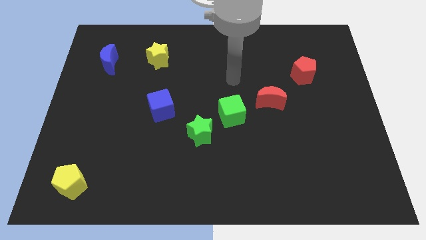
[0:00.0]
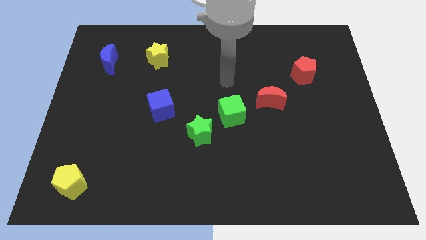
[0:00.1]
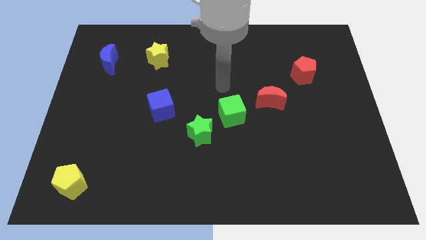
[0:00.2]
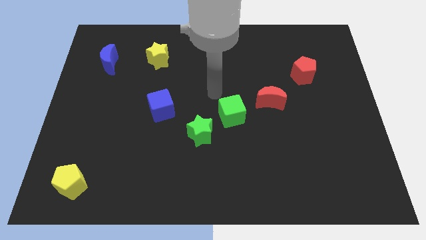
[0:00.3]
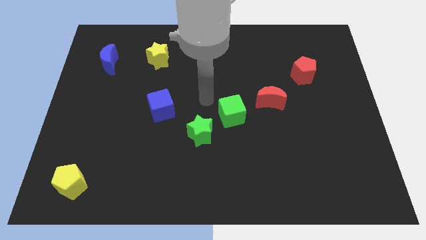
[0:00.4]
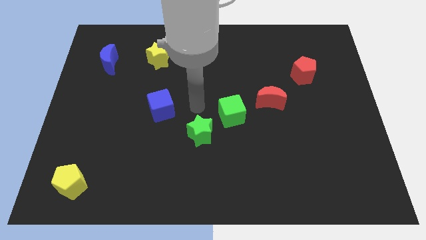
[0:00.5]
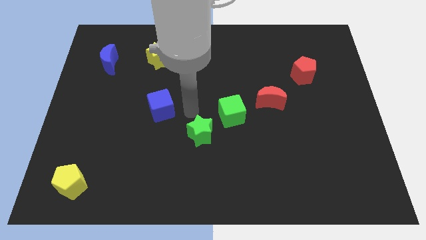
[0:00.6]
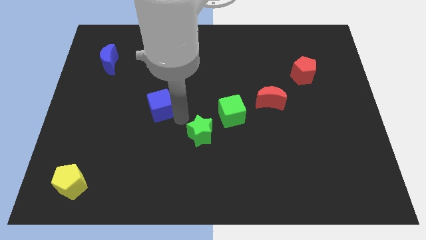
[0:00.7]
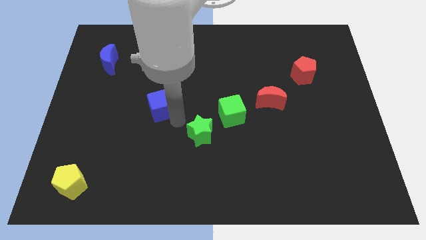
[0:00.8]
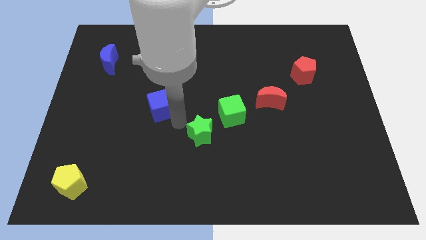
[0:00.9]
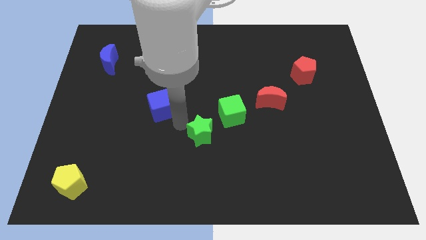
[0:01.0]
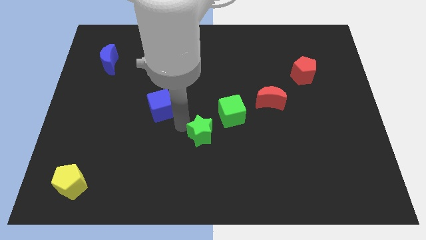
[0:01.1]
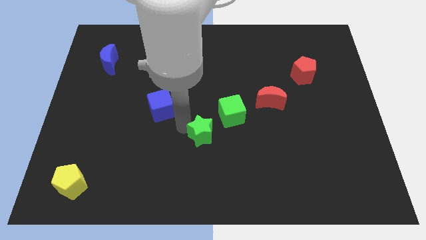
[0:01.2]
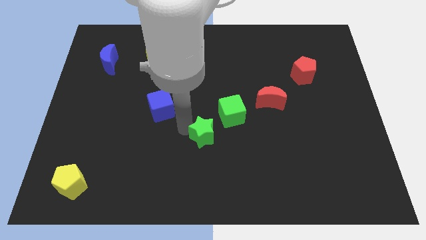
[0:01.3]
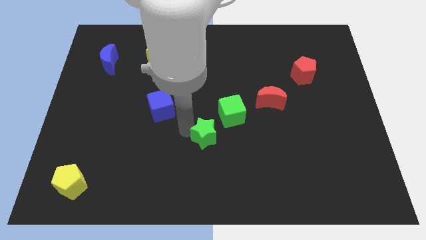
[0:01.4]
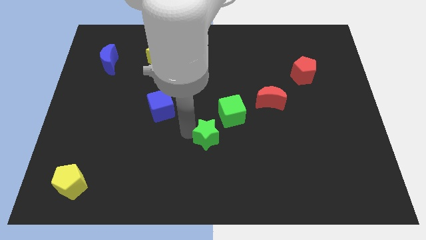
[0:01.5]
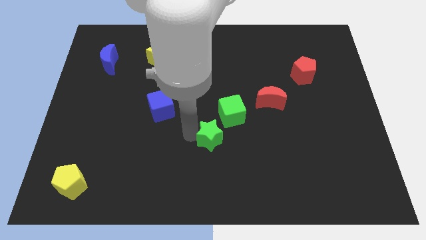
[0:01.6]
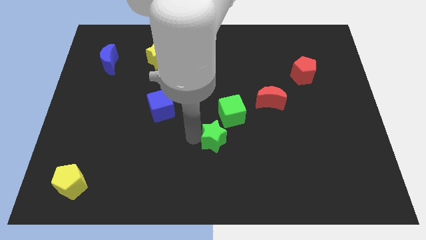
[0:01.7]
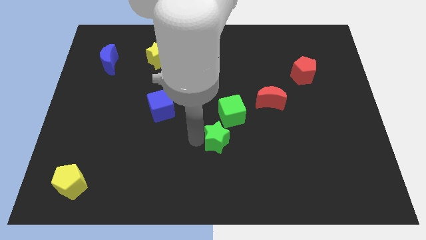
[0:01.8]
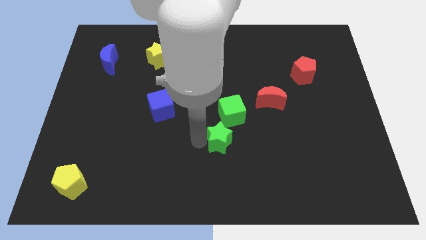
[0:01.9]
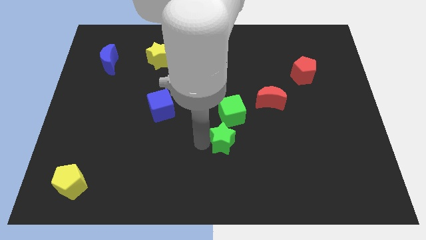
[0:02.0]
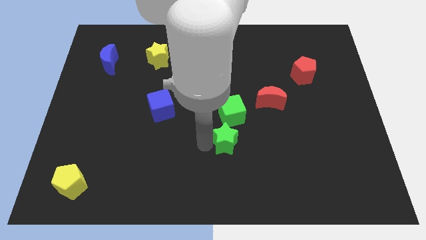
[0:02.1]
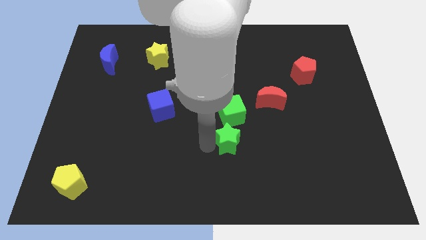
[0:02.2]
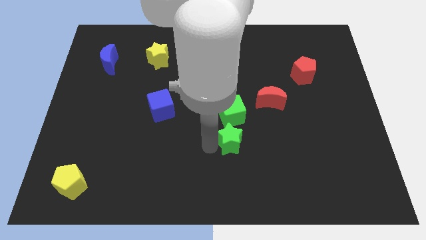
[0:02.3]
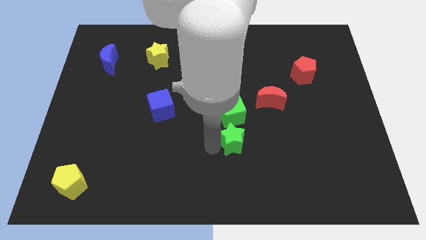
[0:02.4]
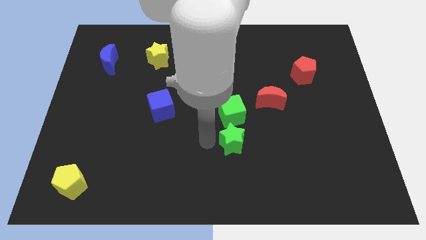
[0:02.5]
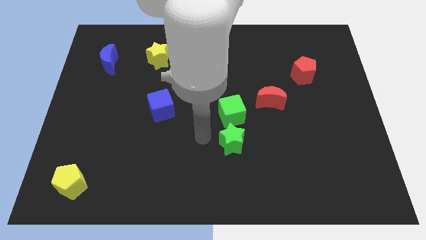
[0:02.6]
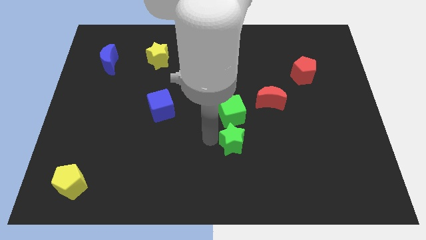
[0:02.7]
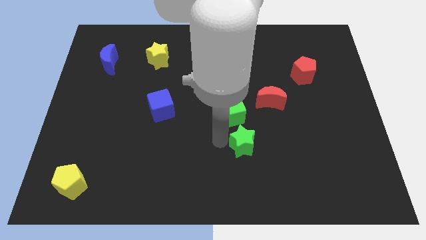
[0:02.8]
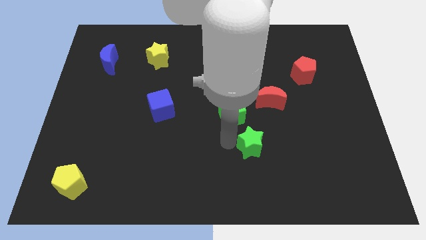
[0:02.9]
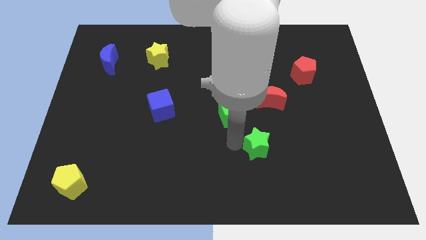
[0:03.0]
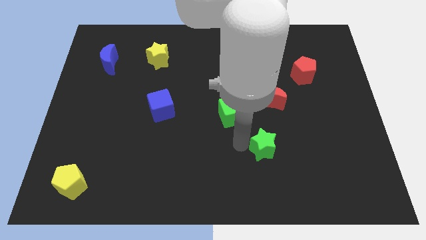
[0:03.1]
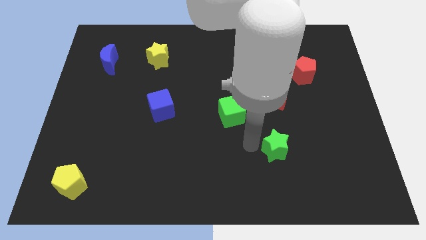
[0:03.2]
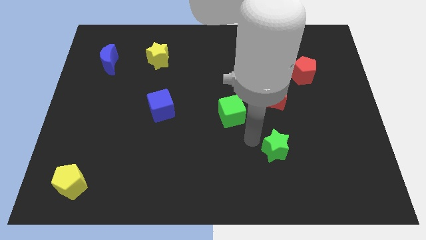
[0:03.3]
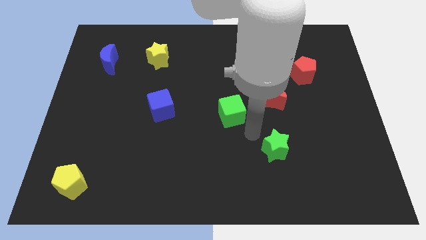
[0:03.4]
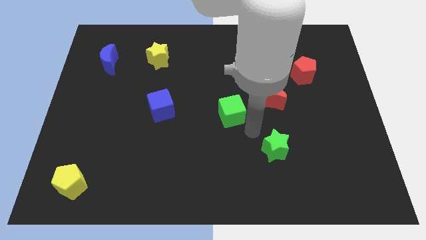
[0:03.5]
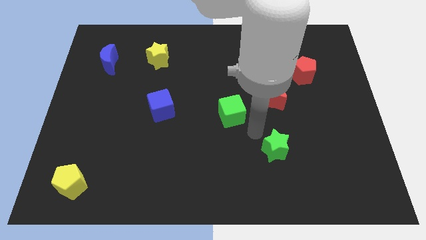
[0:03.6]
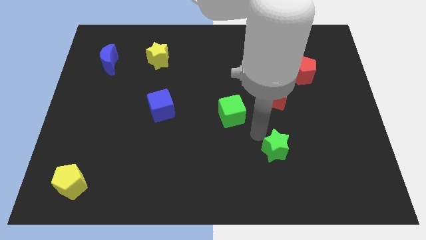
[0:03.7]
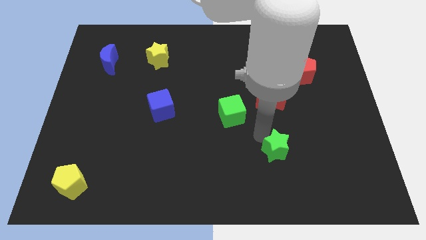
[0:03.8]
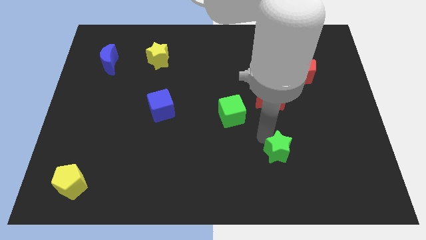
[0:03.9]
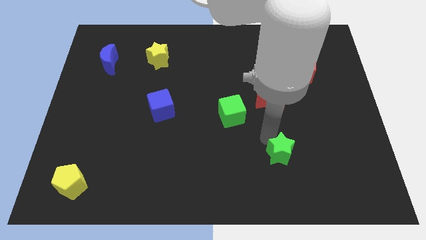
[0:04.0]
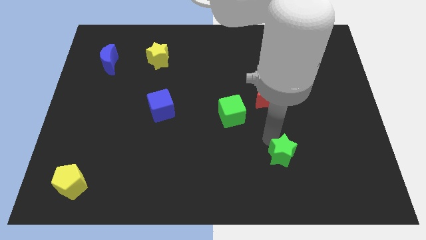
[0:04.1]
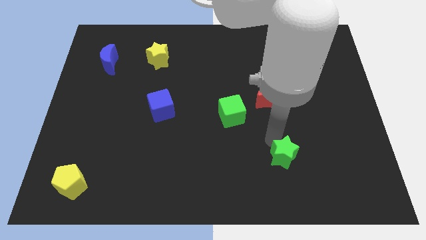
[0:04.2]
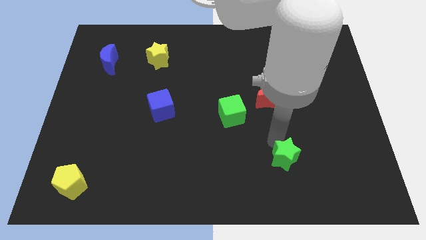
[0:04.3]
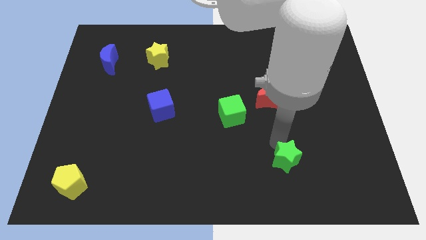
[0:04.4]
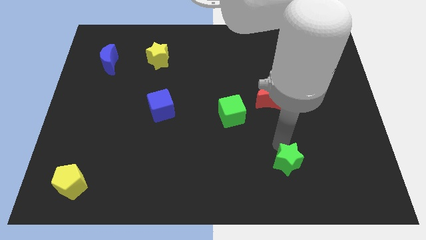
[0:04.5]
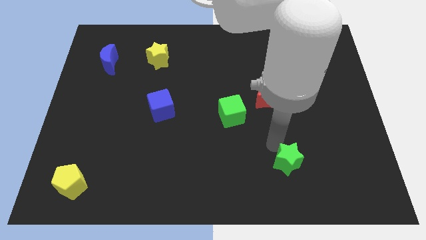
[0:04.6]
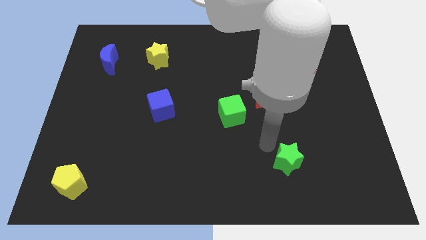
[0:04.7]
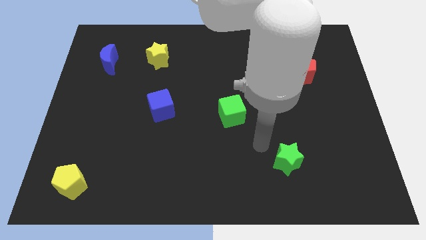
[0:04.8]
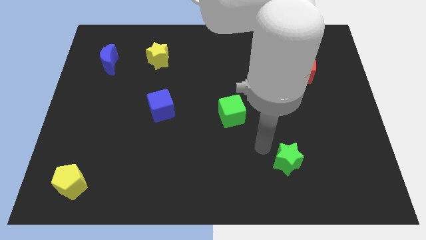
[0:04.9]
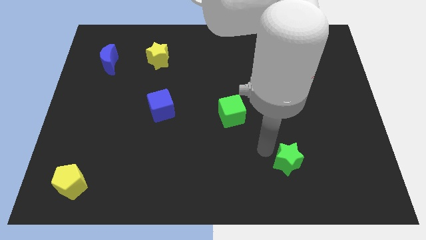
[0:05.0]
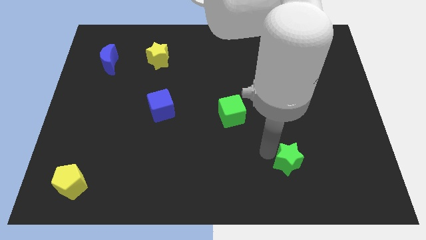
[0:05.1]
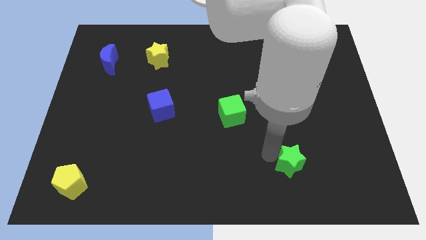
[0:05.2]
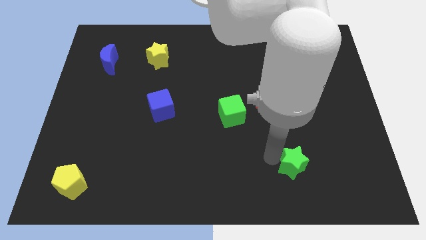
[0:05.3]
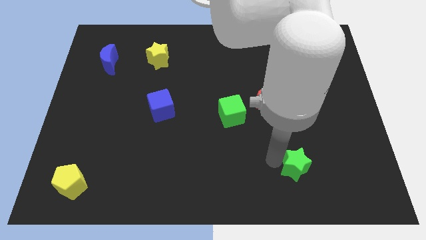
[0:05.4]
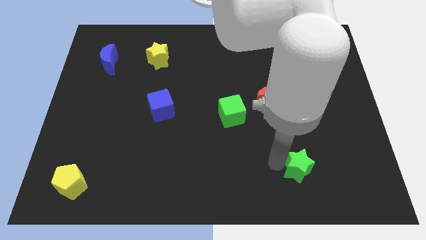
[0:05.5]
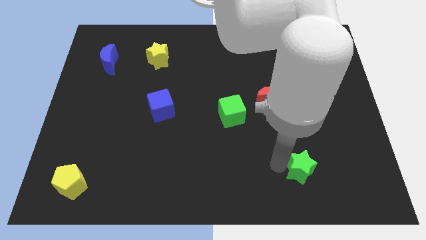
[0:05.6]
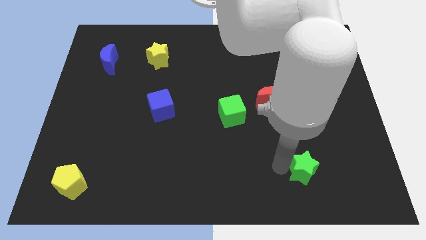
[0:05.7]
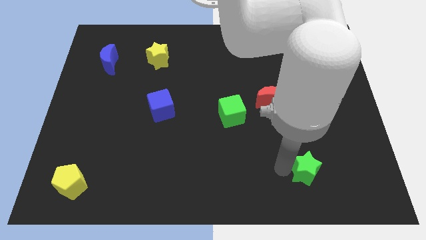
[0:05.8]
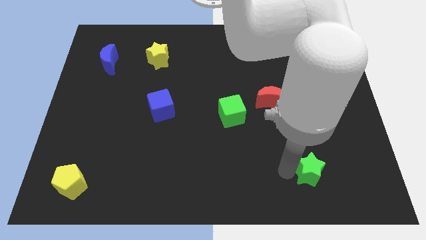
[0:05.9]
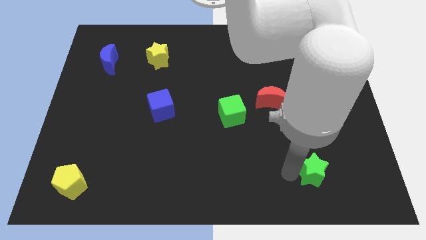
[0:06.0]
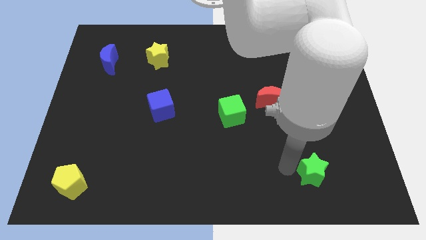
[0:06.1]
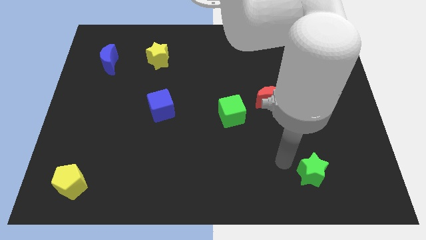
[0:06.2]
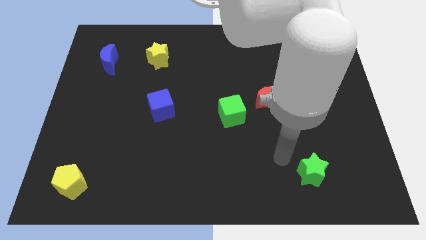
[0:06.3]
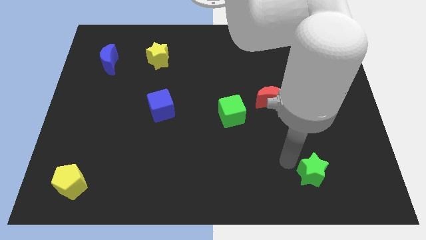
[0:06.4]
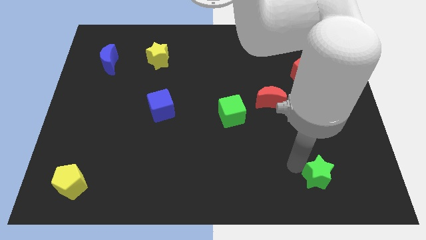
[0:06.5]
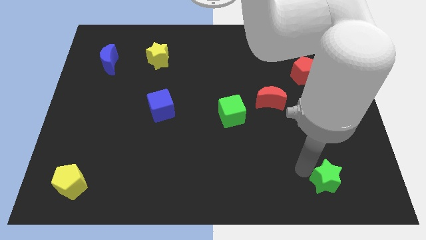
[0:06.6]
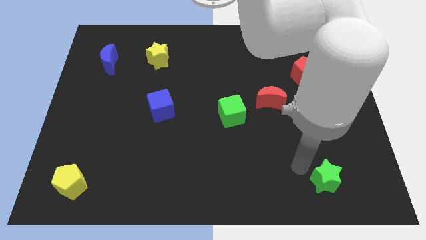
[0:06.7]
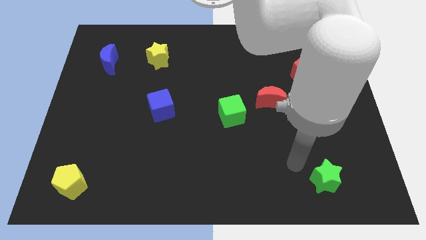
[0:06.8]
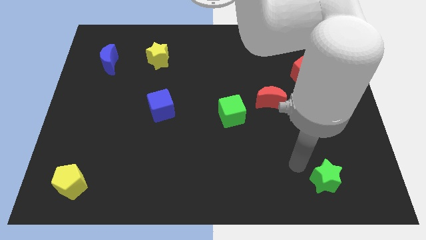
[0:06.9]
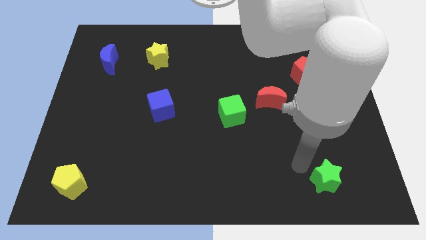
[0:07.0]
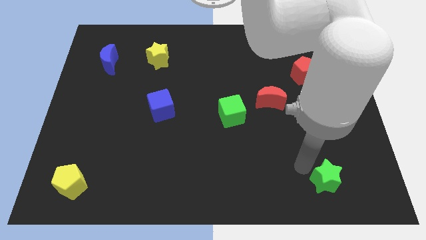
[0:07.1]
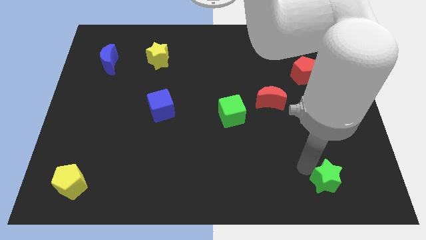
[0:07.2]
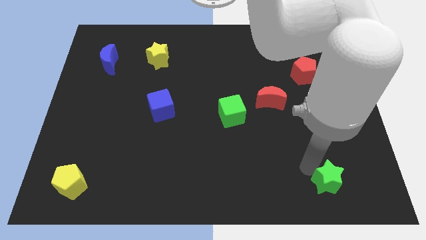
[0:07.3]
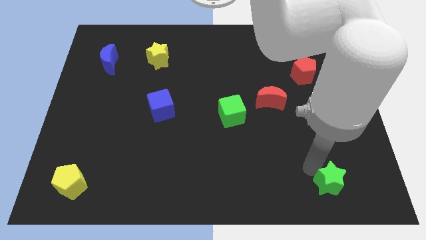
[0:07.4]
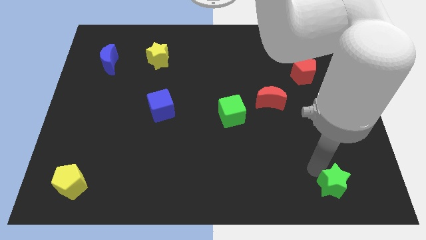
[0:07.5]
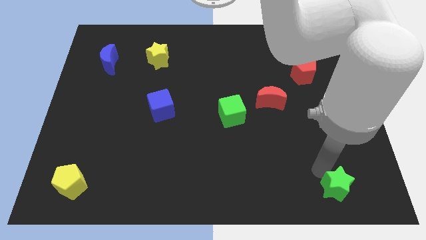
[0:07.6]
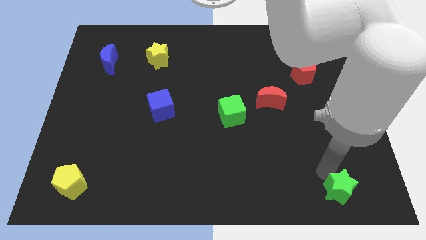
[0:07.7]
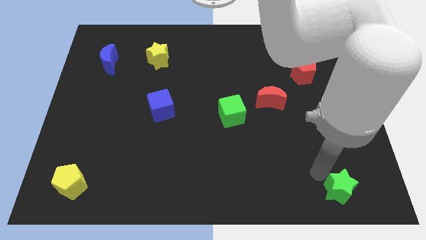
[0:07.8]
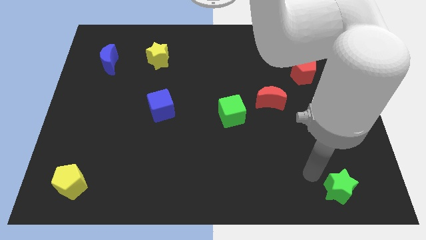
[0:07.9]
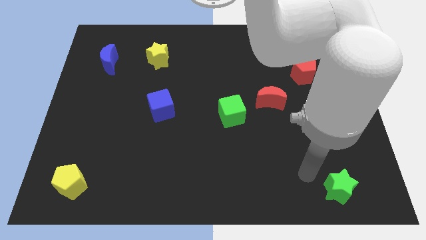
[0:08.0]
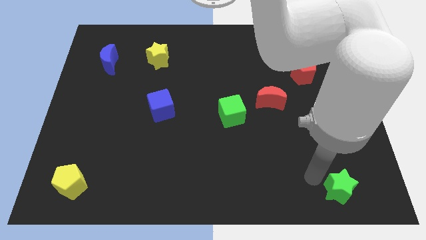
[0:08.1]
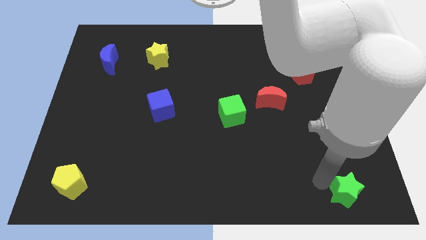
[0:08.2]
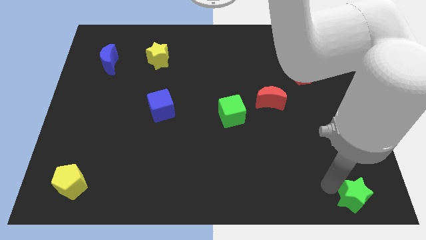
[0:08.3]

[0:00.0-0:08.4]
move the green star to the lower right corner
